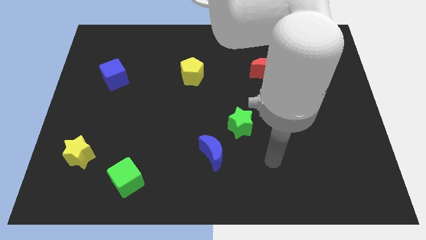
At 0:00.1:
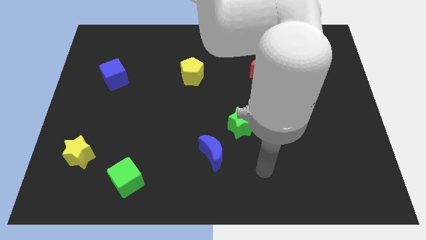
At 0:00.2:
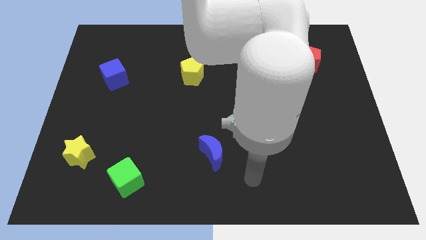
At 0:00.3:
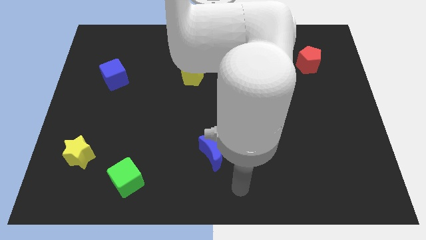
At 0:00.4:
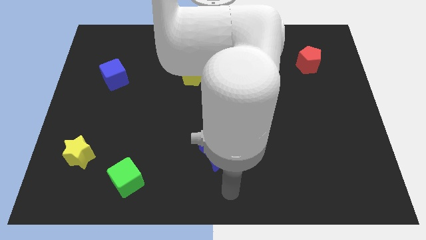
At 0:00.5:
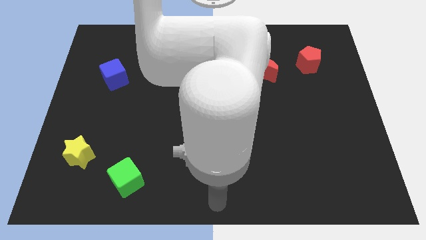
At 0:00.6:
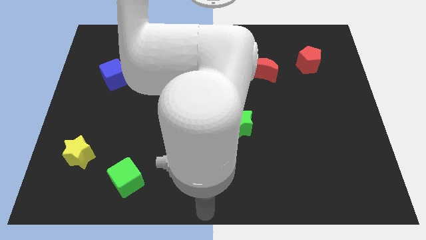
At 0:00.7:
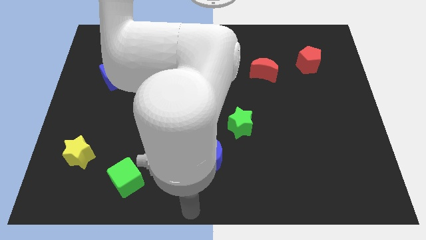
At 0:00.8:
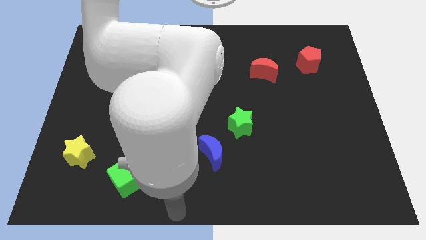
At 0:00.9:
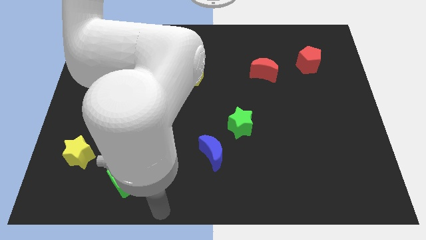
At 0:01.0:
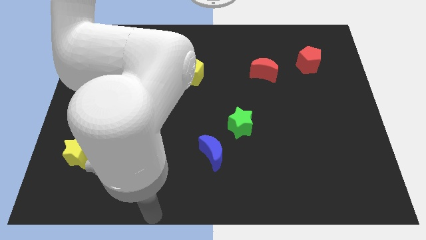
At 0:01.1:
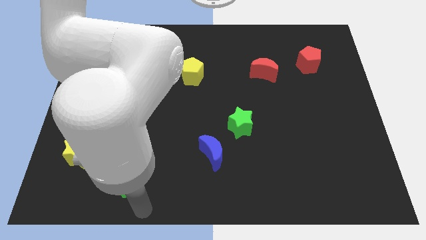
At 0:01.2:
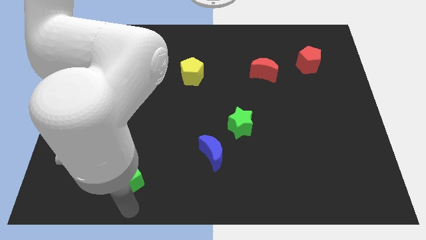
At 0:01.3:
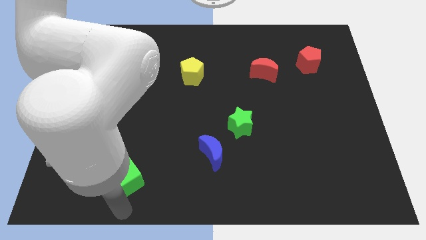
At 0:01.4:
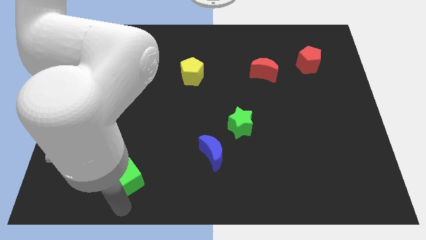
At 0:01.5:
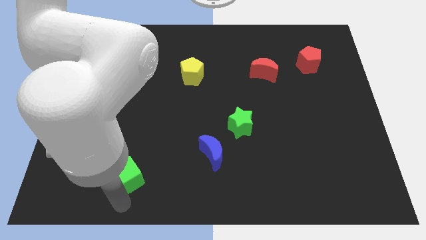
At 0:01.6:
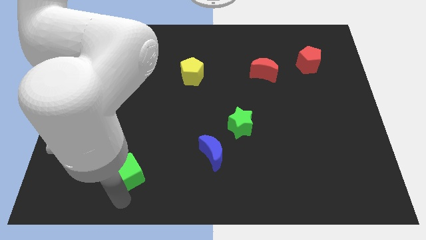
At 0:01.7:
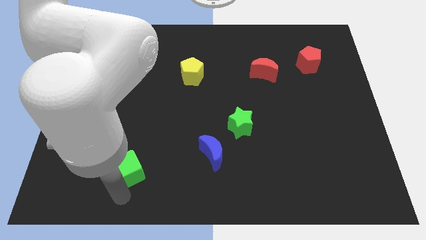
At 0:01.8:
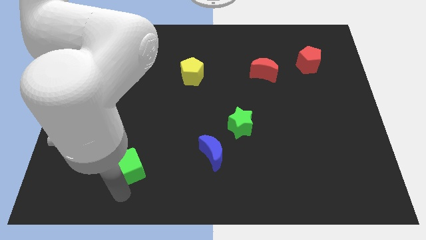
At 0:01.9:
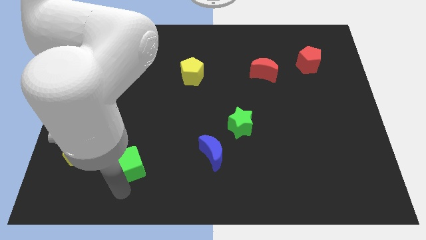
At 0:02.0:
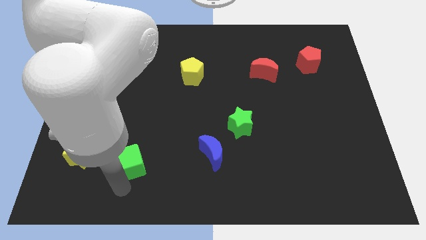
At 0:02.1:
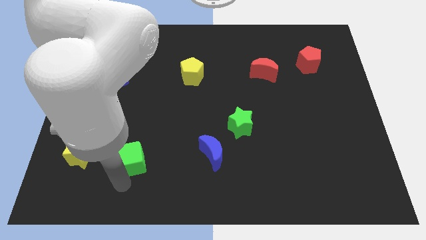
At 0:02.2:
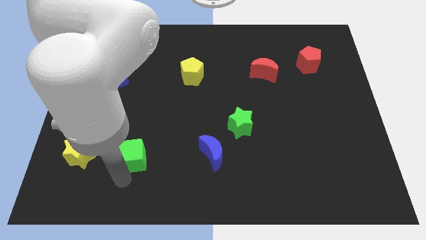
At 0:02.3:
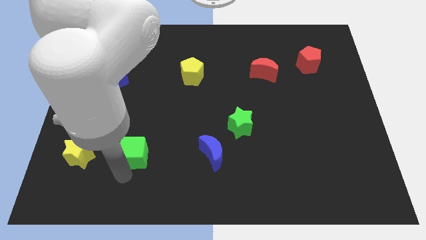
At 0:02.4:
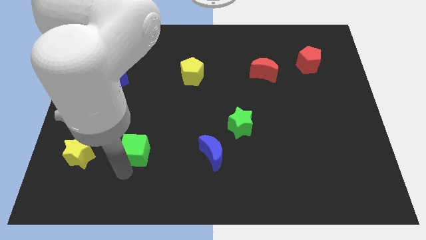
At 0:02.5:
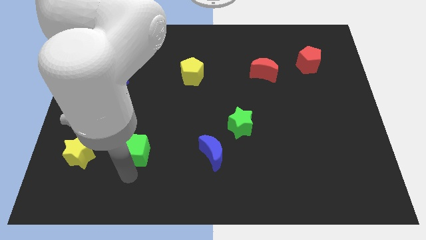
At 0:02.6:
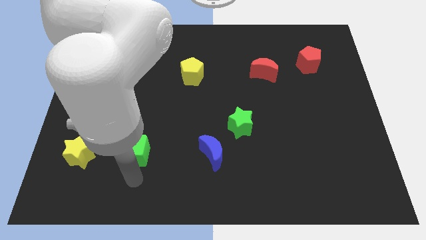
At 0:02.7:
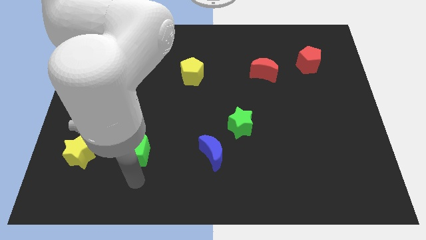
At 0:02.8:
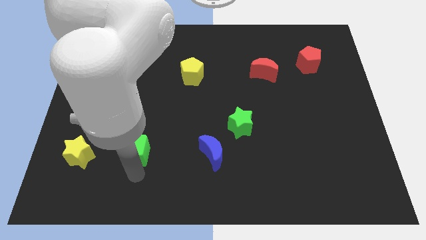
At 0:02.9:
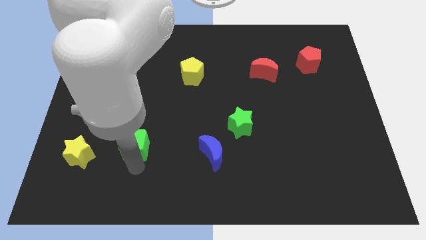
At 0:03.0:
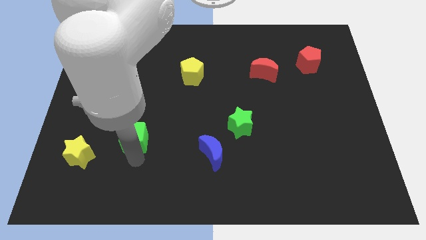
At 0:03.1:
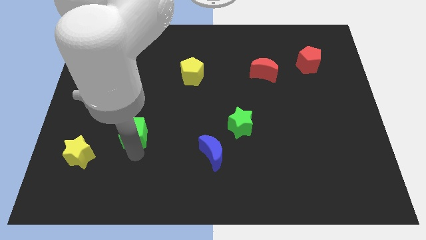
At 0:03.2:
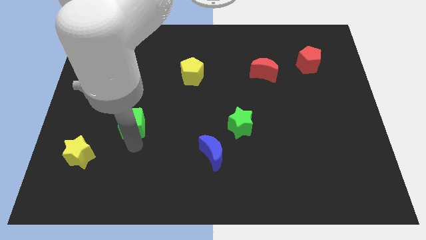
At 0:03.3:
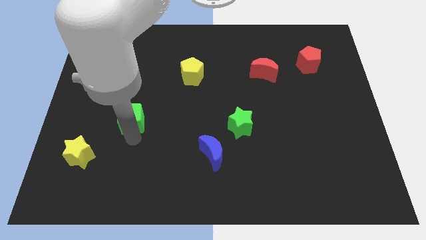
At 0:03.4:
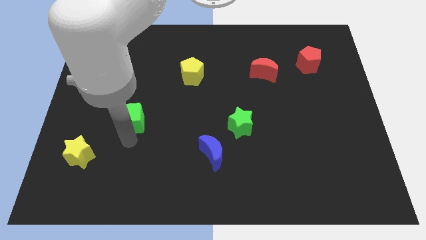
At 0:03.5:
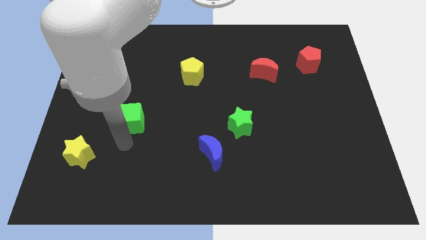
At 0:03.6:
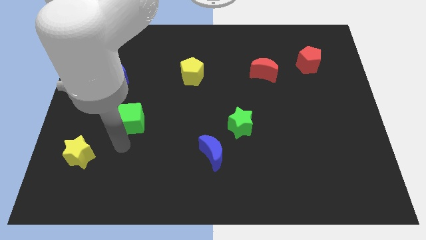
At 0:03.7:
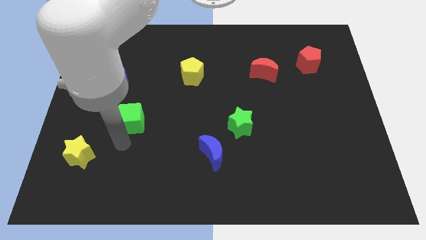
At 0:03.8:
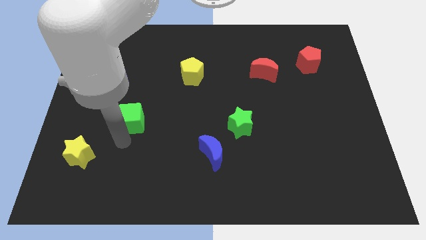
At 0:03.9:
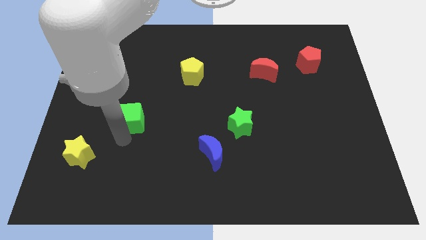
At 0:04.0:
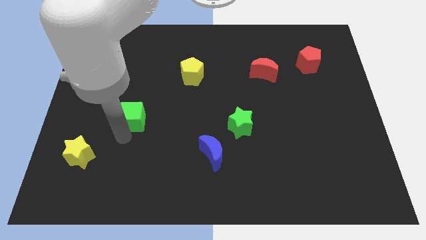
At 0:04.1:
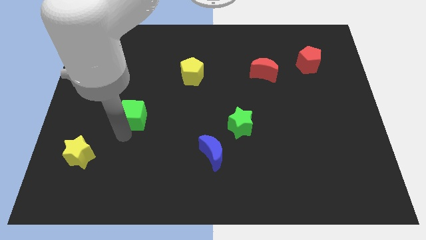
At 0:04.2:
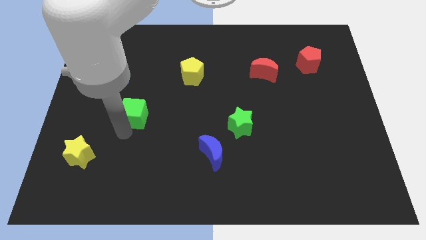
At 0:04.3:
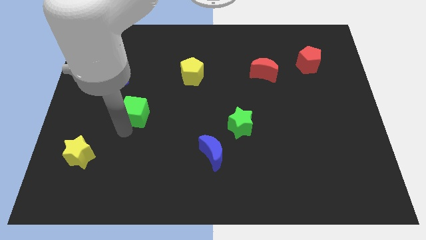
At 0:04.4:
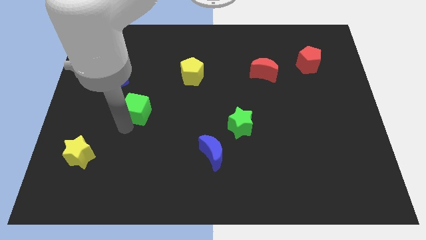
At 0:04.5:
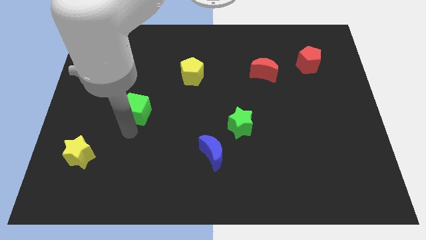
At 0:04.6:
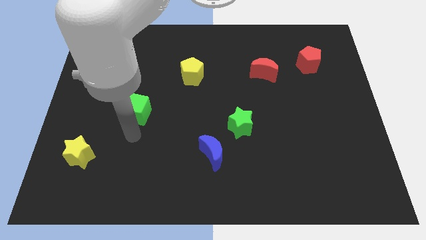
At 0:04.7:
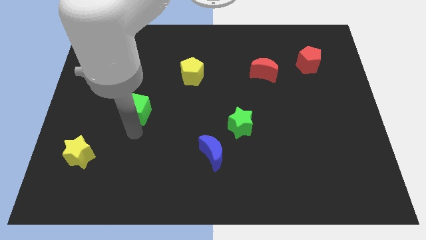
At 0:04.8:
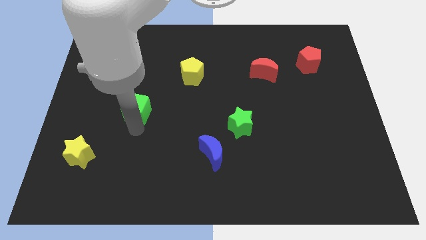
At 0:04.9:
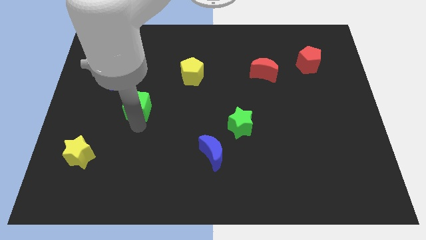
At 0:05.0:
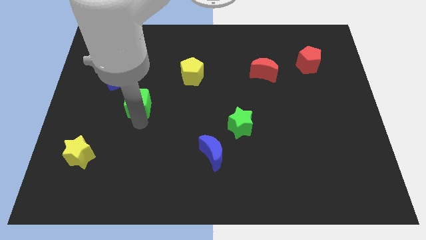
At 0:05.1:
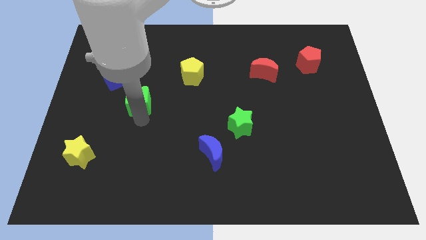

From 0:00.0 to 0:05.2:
push the green cube upwards

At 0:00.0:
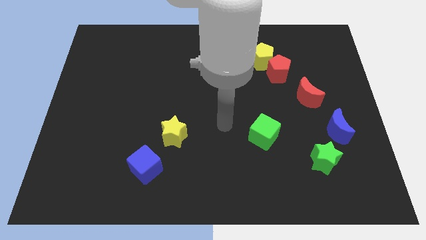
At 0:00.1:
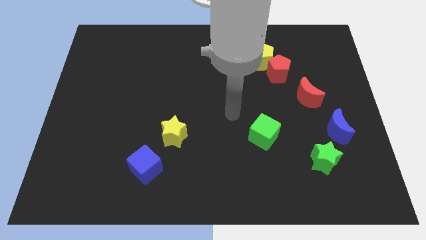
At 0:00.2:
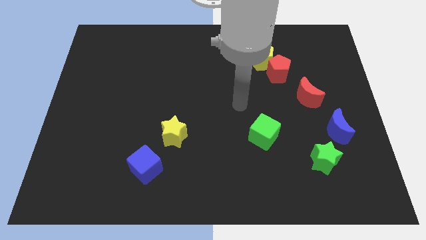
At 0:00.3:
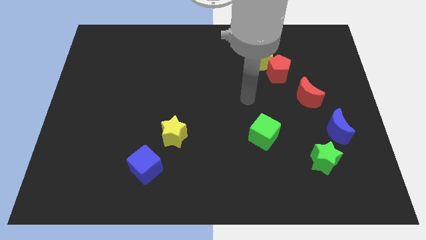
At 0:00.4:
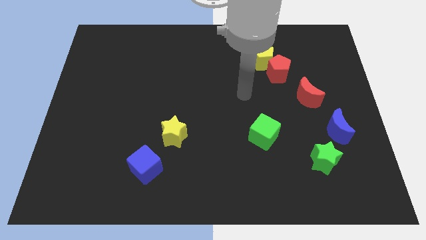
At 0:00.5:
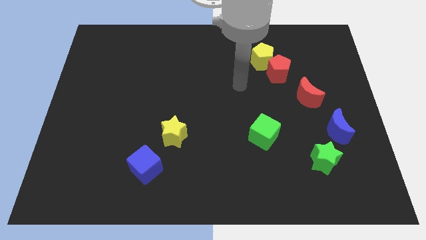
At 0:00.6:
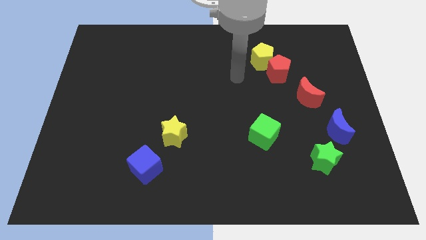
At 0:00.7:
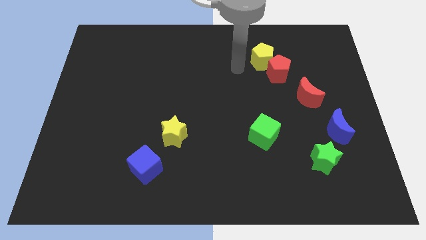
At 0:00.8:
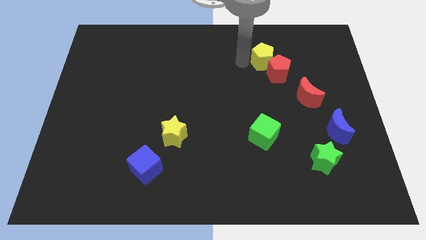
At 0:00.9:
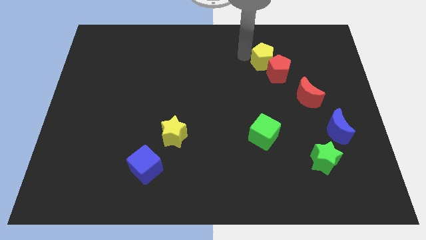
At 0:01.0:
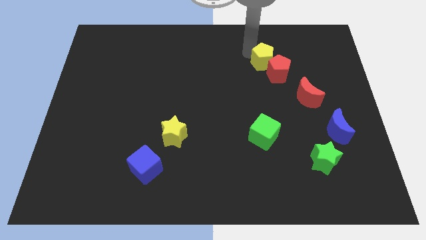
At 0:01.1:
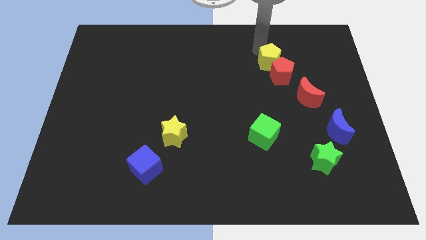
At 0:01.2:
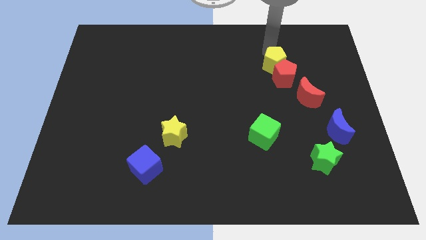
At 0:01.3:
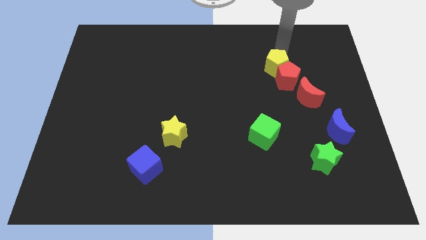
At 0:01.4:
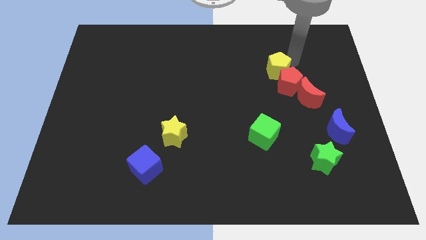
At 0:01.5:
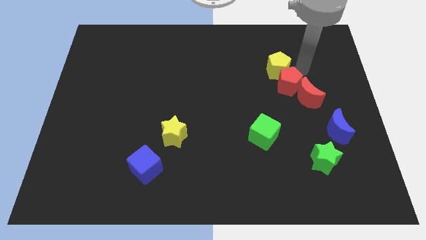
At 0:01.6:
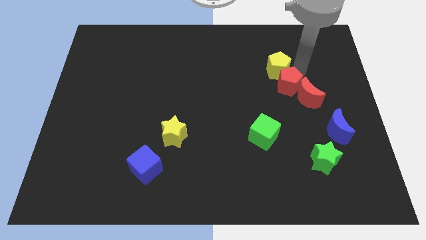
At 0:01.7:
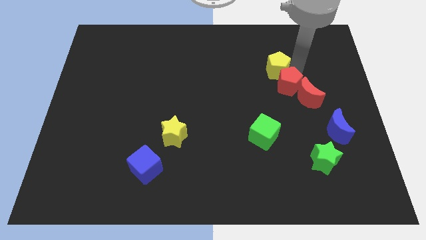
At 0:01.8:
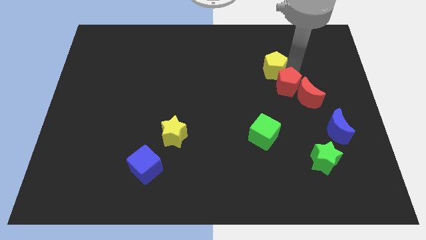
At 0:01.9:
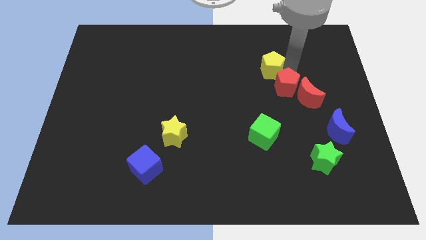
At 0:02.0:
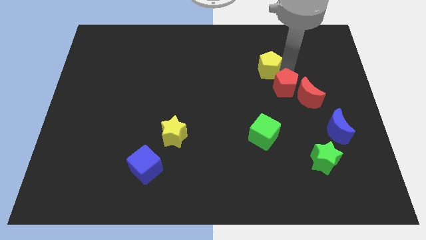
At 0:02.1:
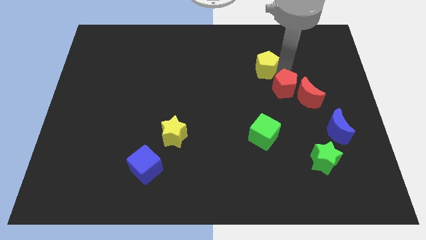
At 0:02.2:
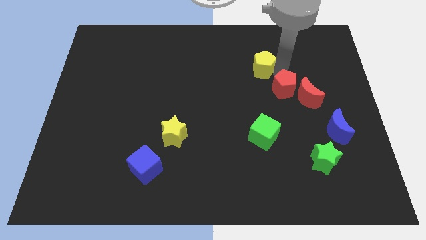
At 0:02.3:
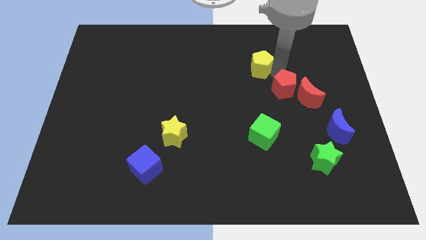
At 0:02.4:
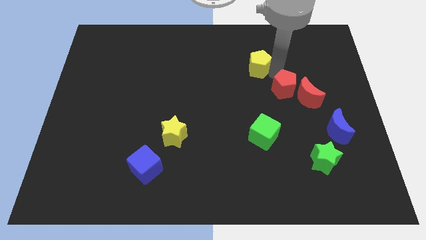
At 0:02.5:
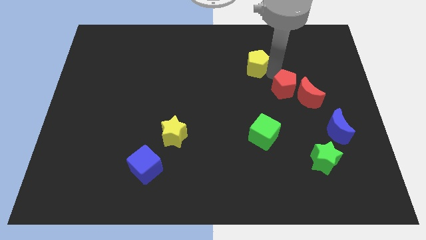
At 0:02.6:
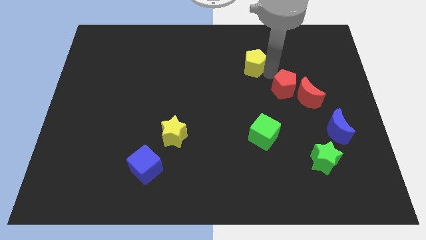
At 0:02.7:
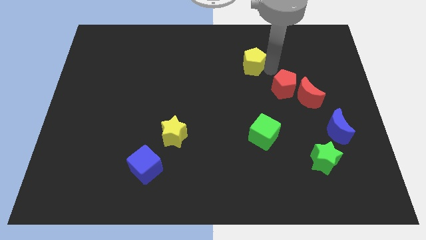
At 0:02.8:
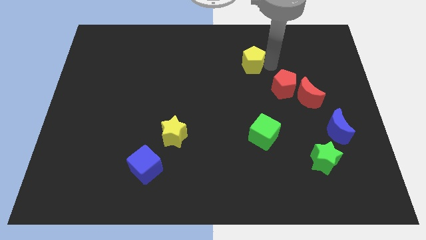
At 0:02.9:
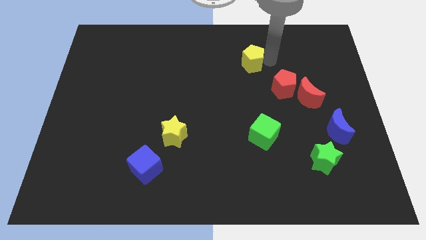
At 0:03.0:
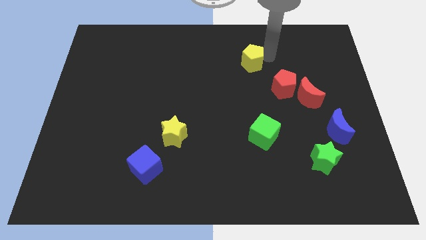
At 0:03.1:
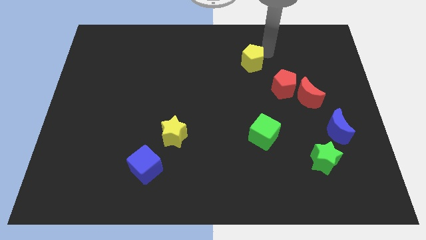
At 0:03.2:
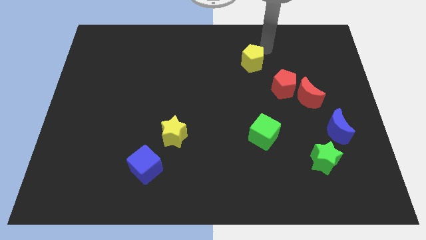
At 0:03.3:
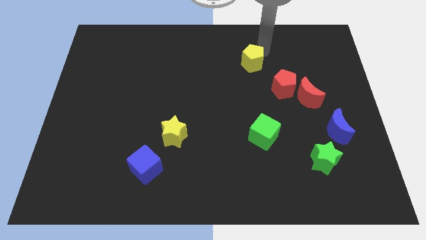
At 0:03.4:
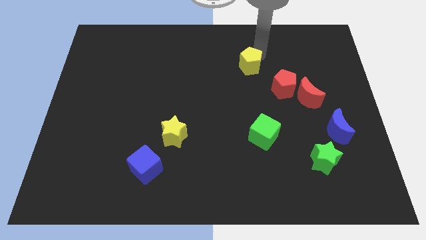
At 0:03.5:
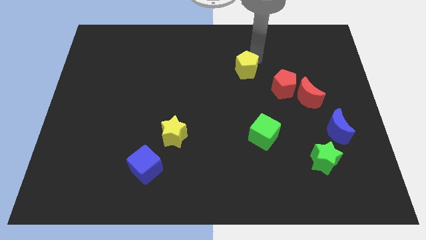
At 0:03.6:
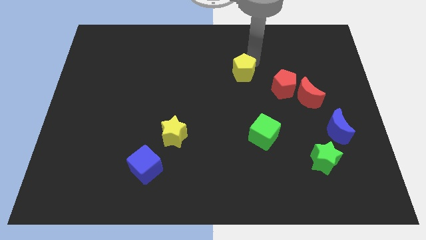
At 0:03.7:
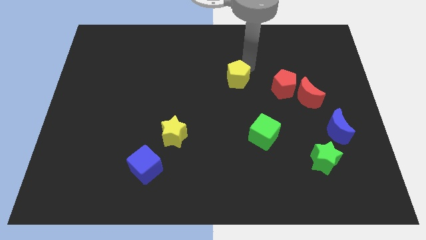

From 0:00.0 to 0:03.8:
push the yellow pentagon a little bit downwards and to the left
